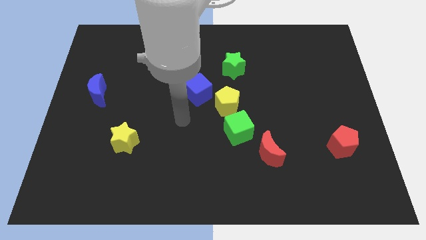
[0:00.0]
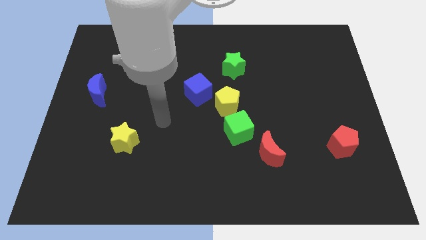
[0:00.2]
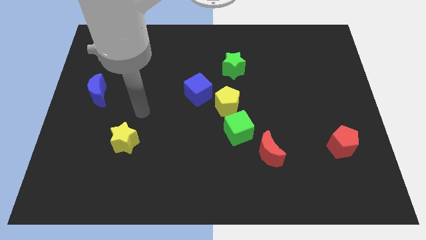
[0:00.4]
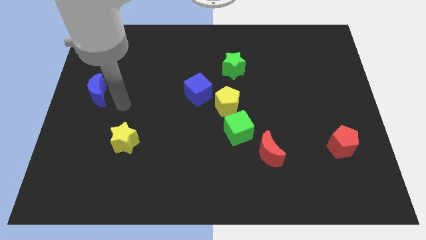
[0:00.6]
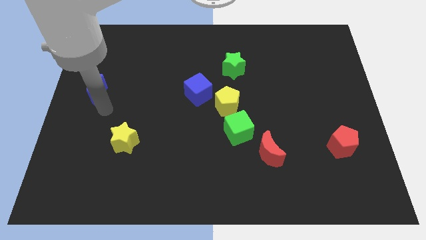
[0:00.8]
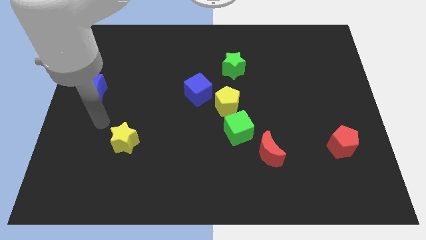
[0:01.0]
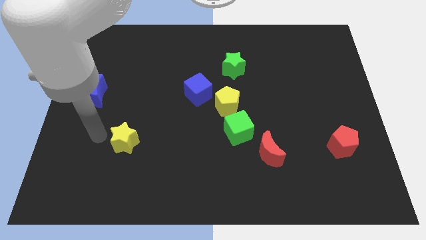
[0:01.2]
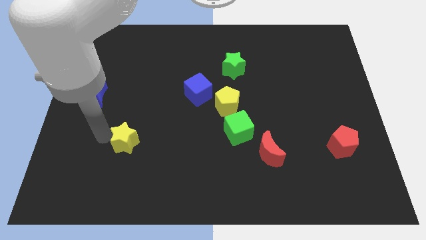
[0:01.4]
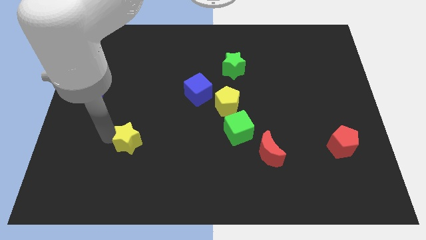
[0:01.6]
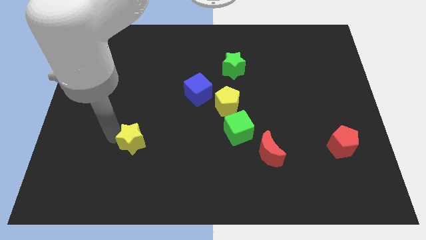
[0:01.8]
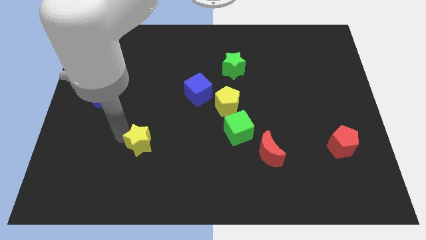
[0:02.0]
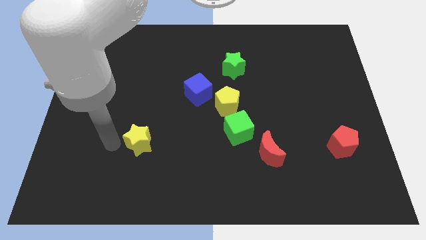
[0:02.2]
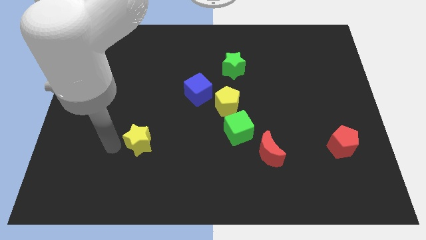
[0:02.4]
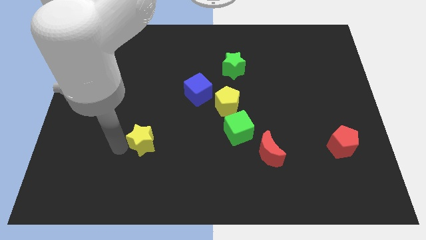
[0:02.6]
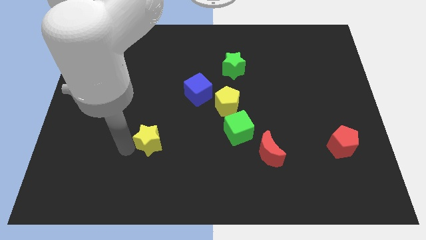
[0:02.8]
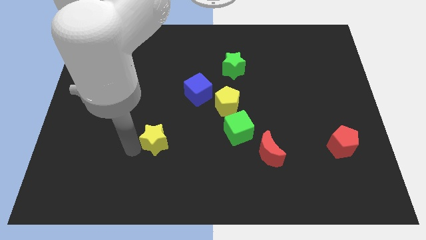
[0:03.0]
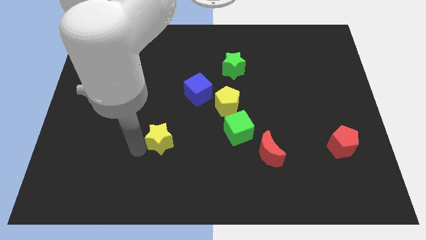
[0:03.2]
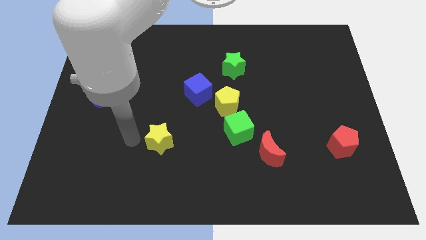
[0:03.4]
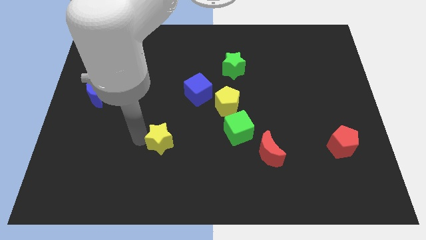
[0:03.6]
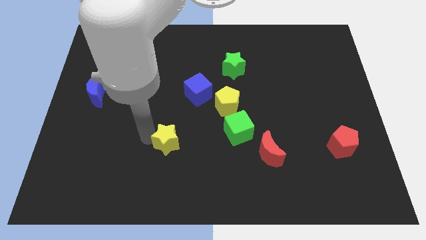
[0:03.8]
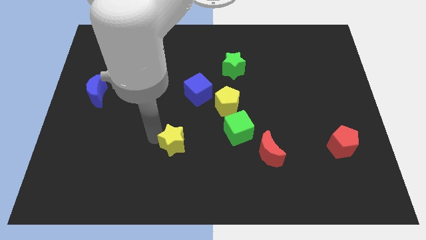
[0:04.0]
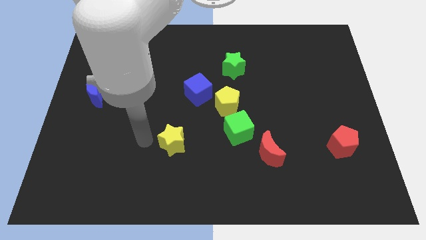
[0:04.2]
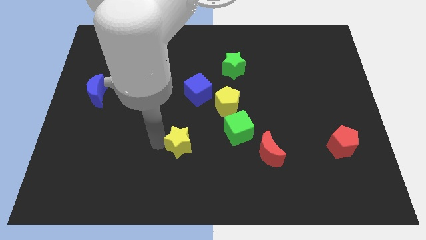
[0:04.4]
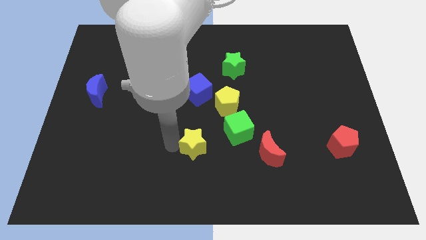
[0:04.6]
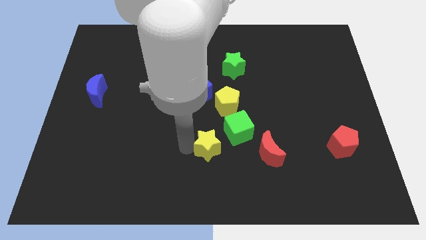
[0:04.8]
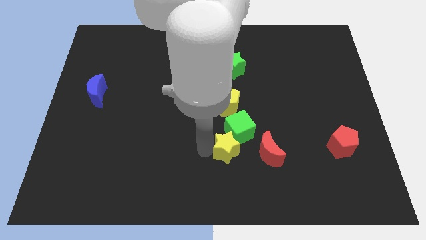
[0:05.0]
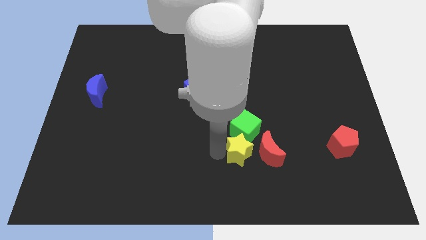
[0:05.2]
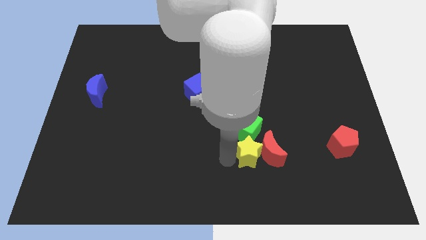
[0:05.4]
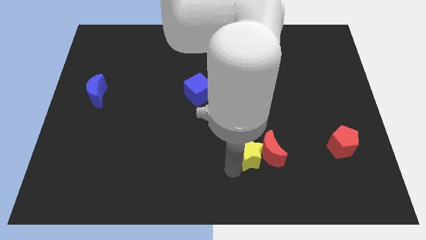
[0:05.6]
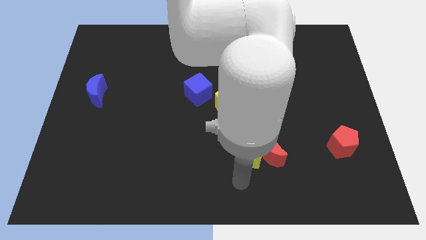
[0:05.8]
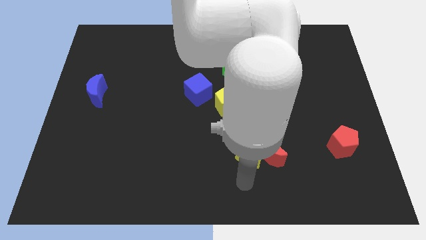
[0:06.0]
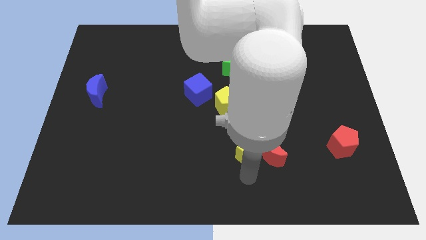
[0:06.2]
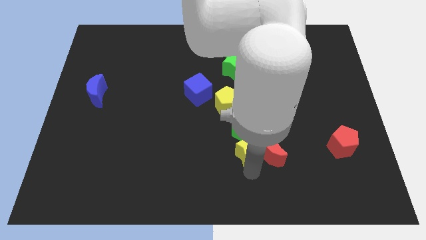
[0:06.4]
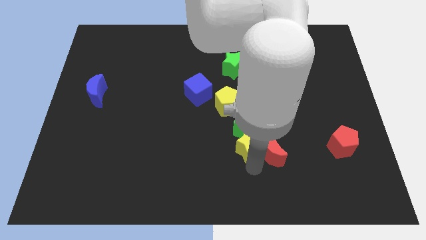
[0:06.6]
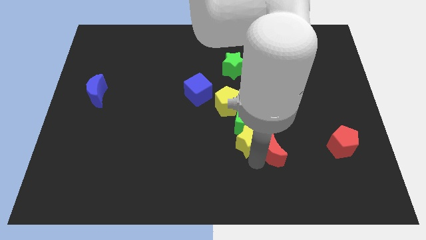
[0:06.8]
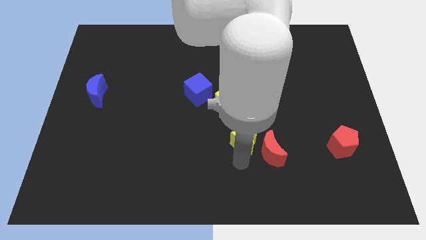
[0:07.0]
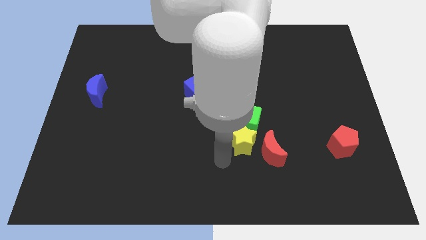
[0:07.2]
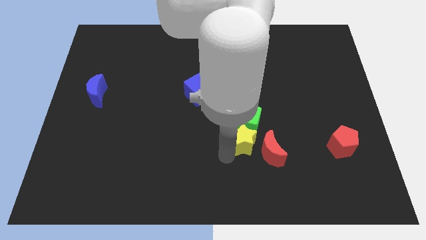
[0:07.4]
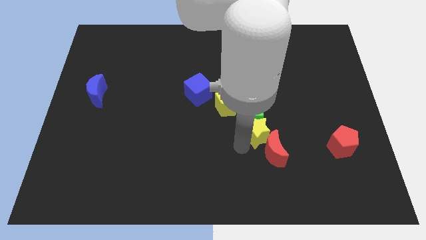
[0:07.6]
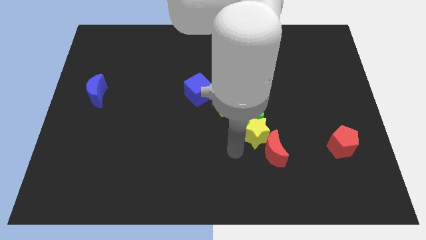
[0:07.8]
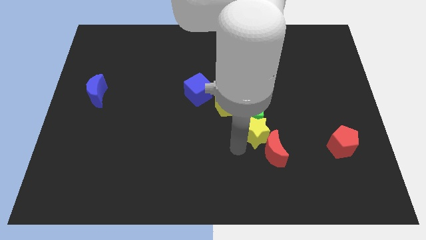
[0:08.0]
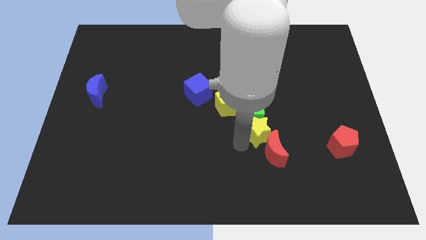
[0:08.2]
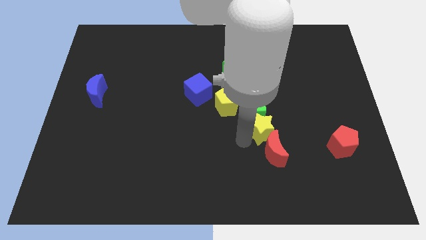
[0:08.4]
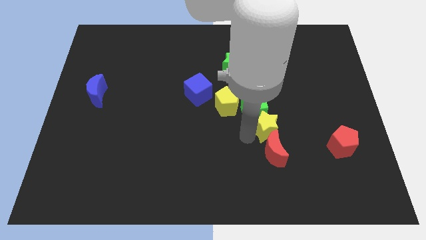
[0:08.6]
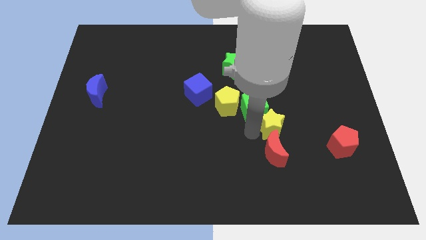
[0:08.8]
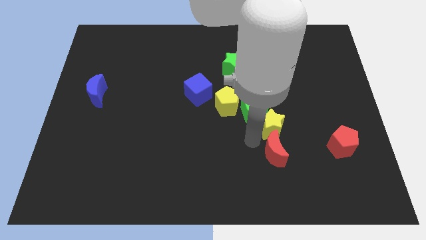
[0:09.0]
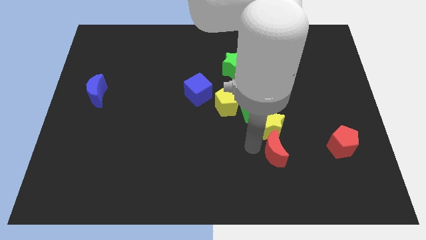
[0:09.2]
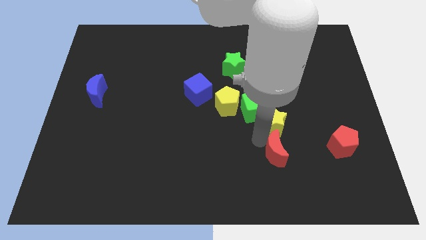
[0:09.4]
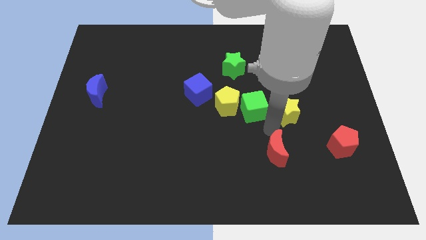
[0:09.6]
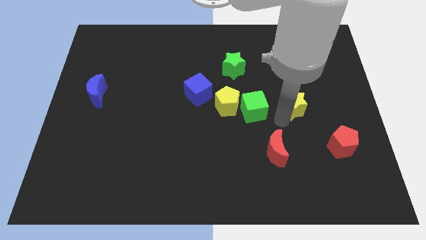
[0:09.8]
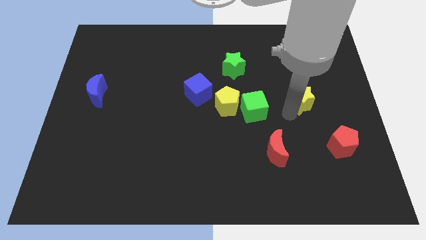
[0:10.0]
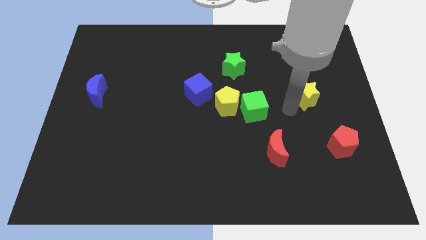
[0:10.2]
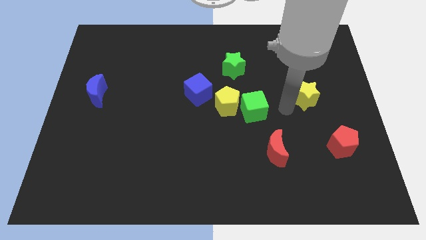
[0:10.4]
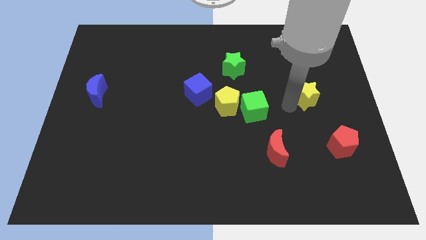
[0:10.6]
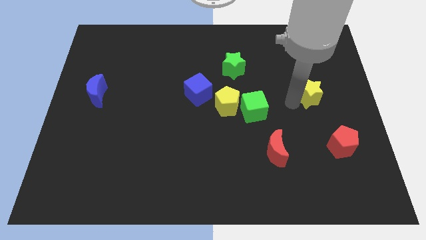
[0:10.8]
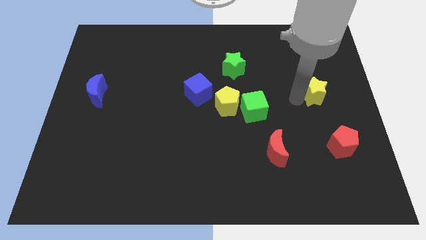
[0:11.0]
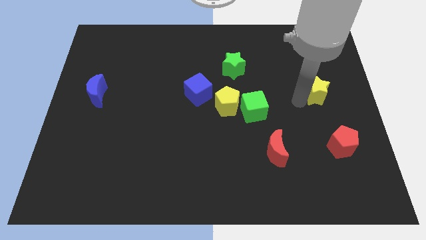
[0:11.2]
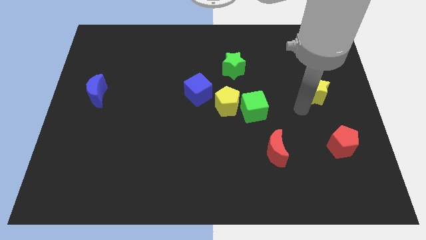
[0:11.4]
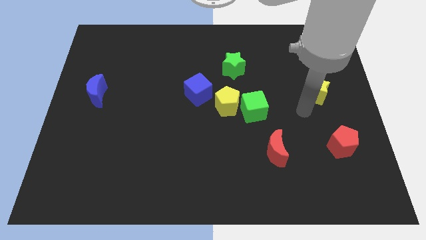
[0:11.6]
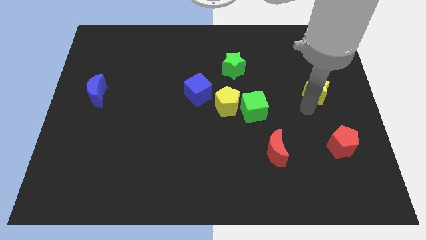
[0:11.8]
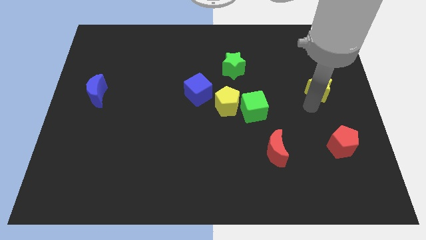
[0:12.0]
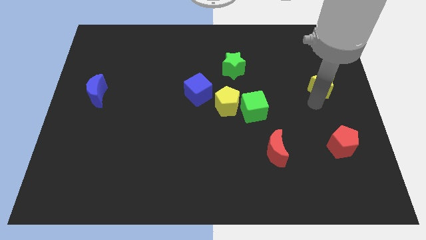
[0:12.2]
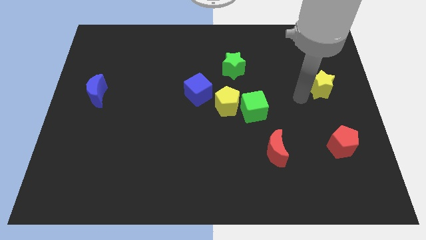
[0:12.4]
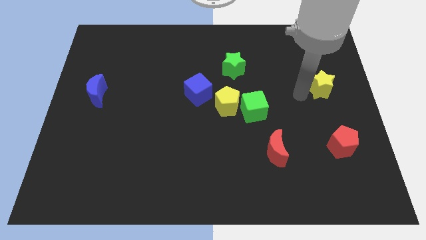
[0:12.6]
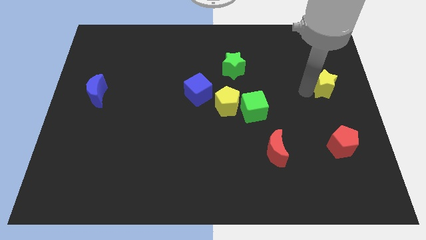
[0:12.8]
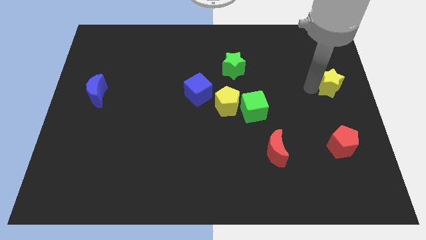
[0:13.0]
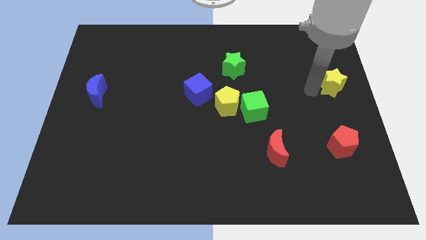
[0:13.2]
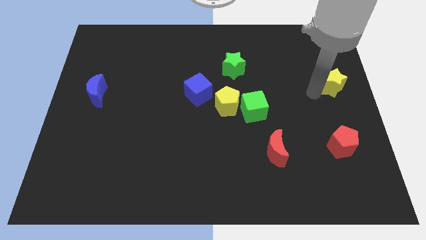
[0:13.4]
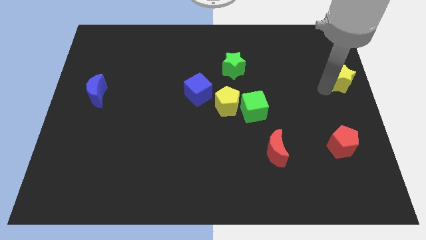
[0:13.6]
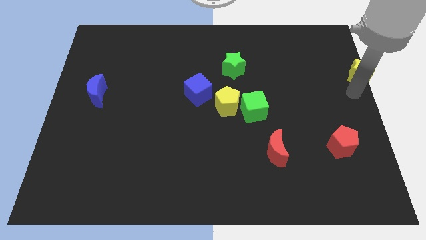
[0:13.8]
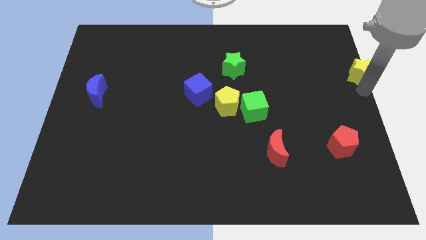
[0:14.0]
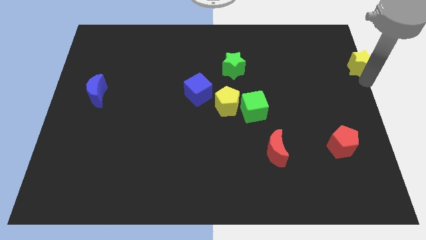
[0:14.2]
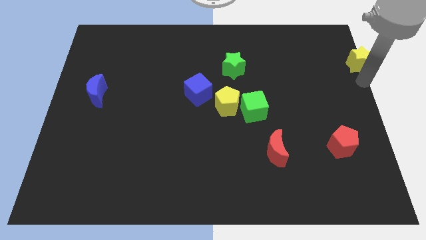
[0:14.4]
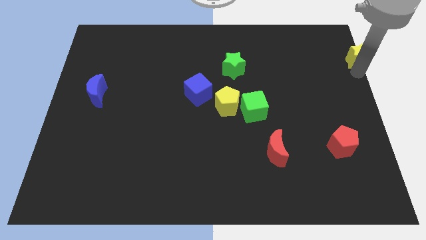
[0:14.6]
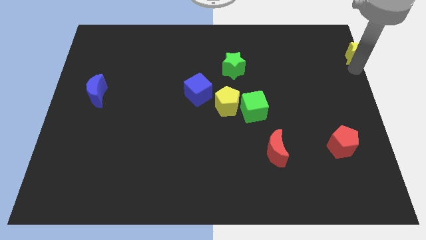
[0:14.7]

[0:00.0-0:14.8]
push the yellow star to the upper right corner
